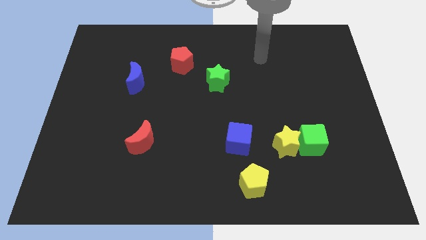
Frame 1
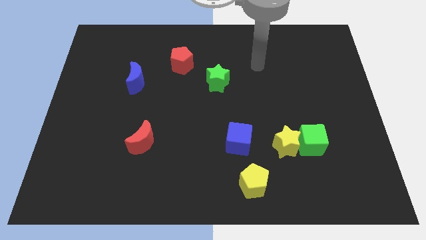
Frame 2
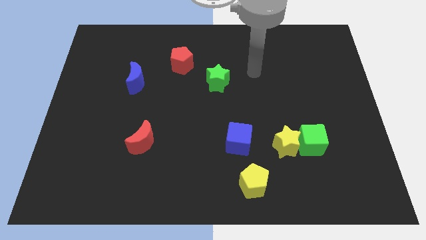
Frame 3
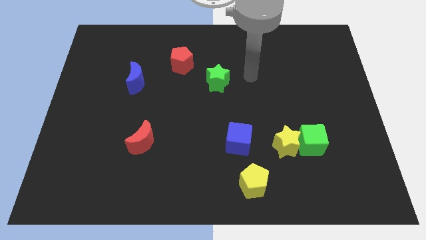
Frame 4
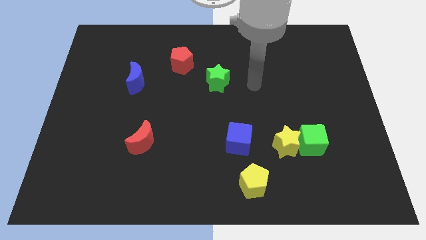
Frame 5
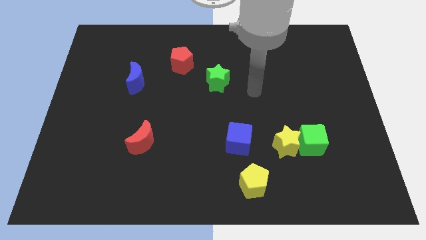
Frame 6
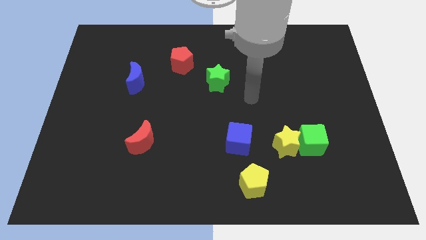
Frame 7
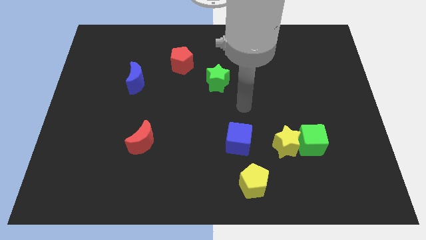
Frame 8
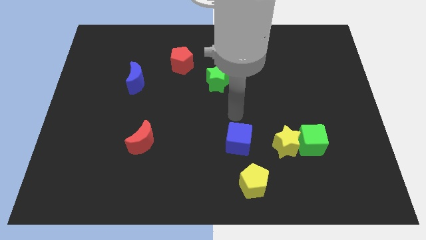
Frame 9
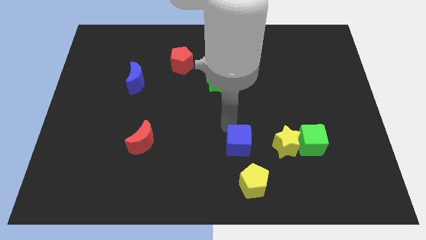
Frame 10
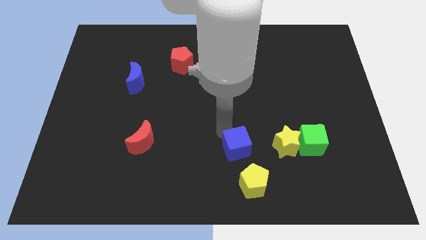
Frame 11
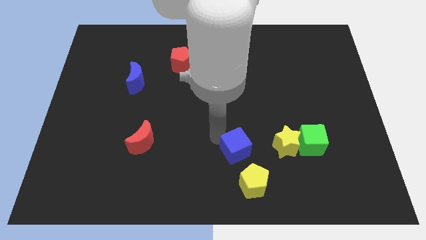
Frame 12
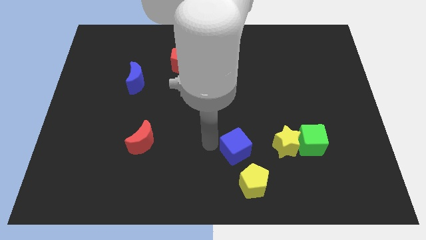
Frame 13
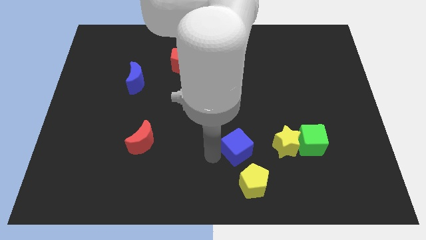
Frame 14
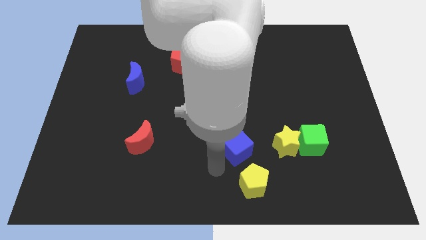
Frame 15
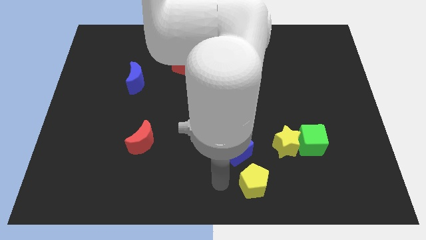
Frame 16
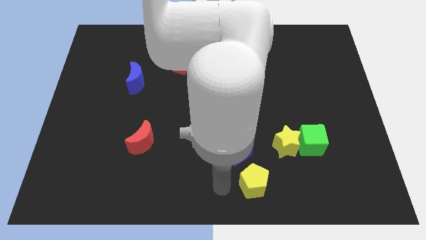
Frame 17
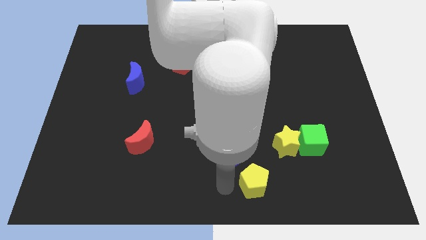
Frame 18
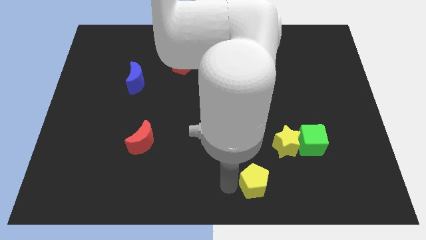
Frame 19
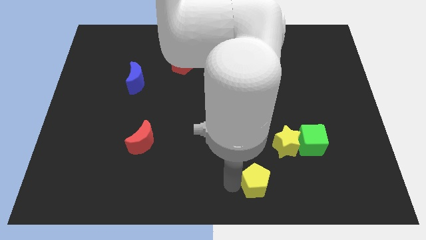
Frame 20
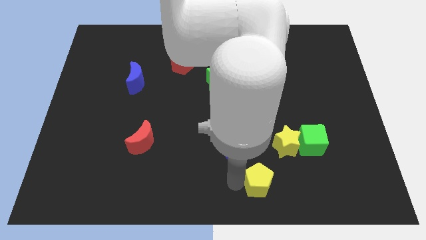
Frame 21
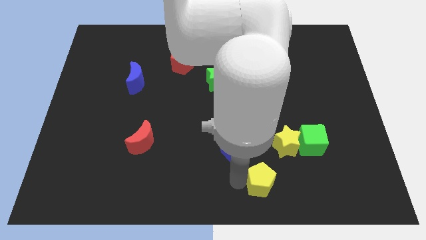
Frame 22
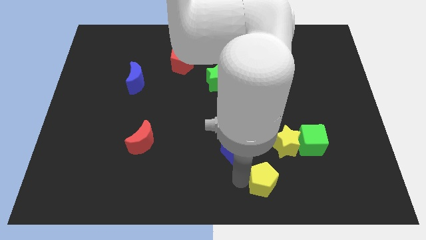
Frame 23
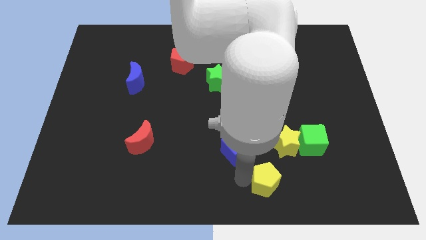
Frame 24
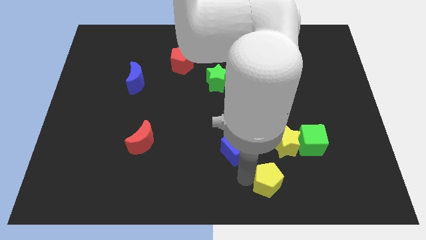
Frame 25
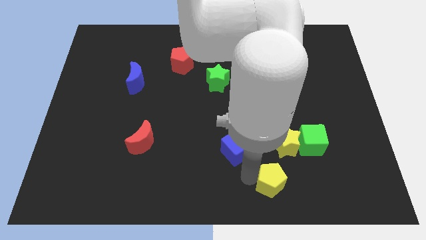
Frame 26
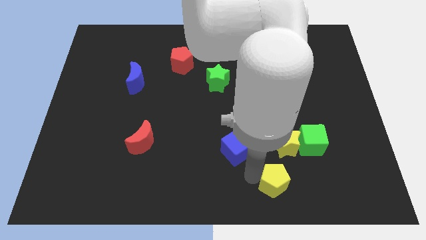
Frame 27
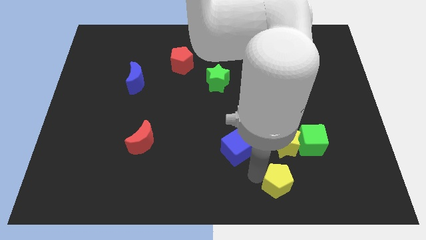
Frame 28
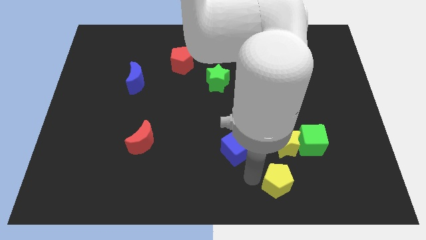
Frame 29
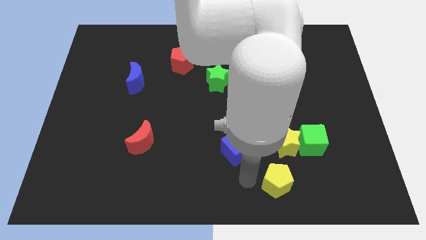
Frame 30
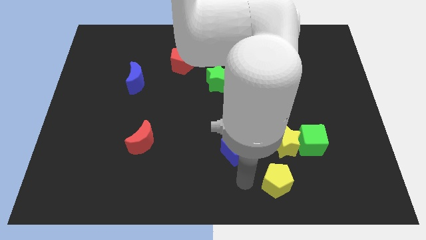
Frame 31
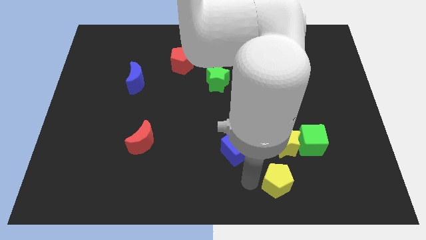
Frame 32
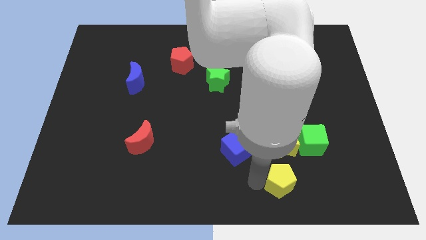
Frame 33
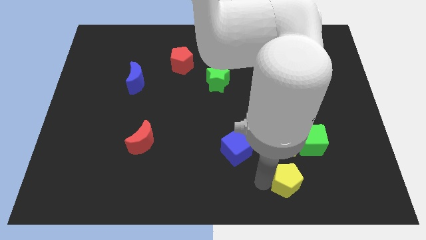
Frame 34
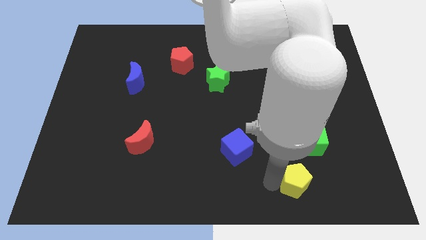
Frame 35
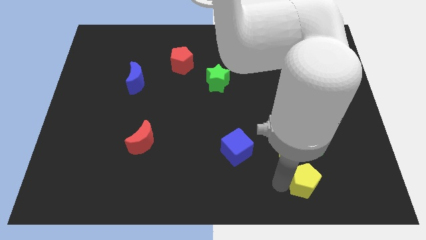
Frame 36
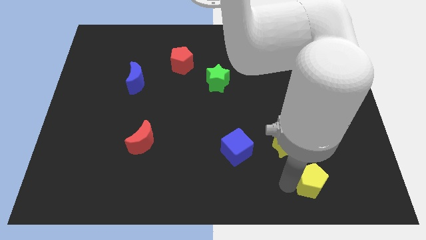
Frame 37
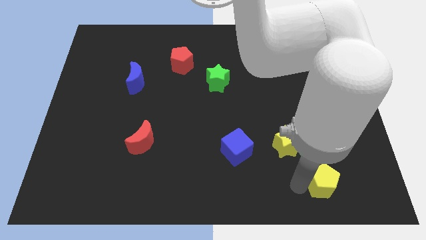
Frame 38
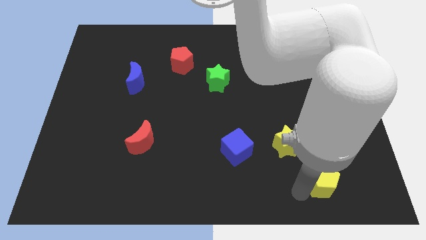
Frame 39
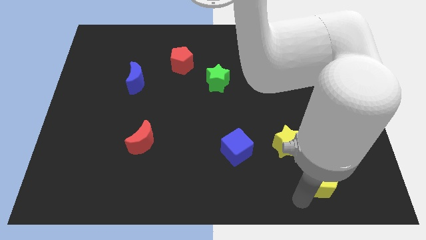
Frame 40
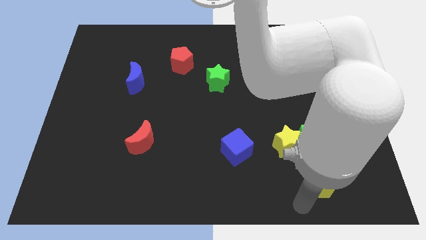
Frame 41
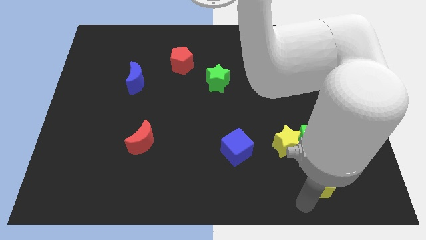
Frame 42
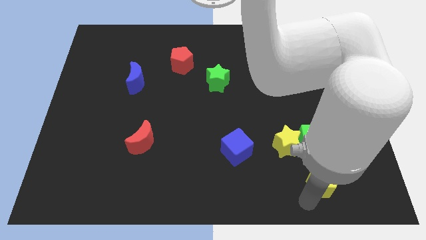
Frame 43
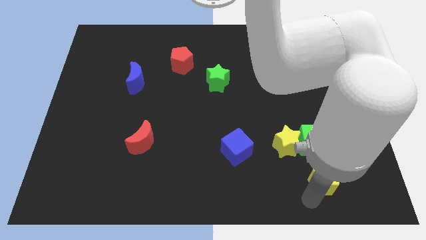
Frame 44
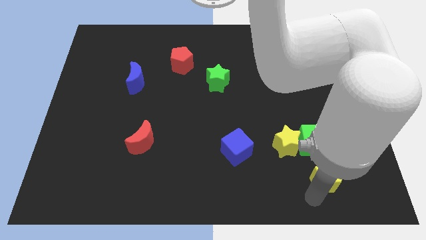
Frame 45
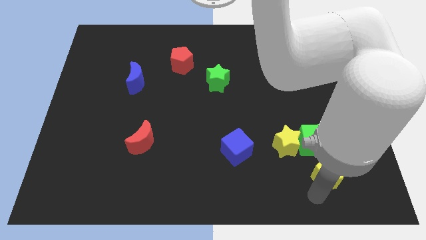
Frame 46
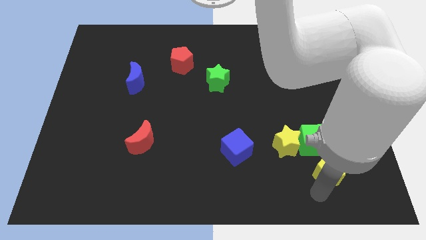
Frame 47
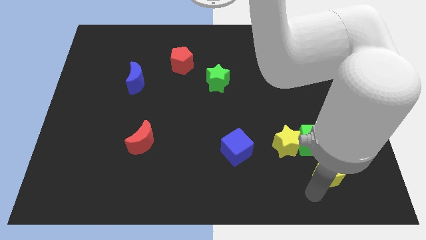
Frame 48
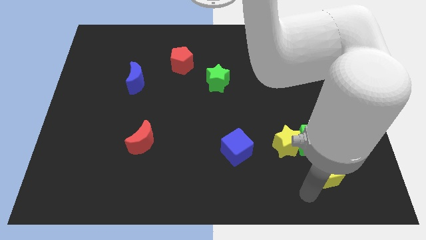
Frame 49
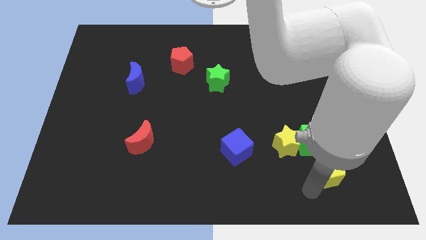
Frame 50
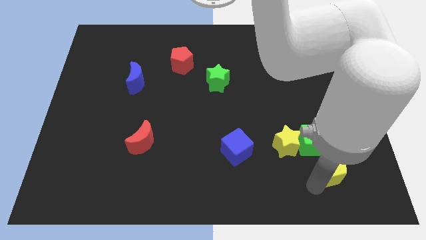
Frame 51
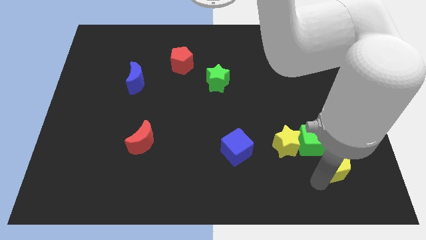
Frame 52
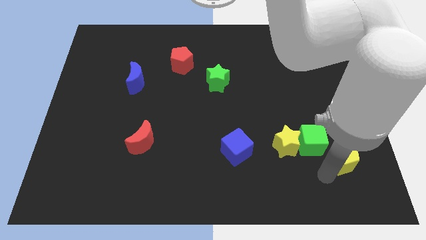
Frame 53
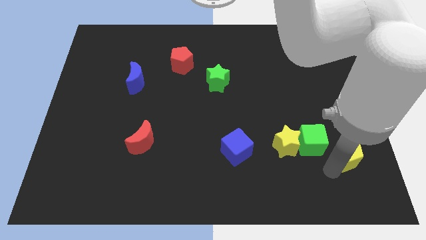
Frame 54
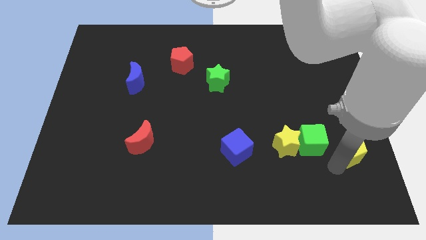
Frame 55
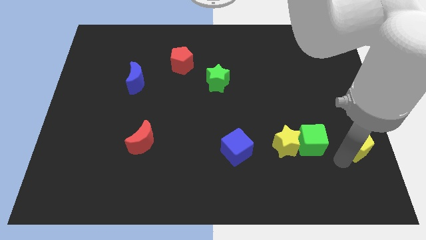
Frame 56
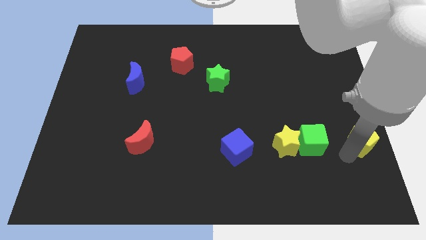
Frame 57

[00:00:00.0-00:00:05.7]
put the yellow pentagon to the right side of the board

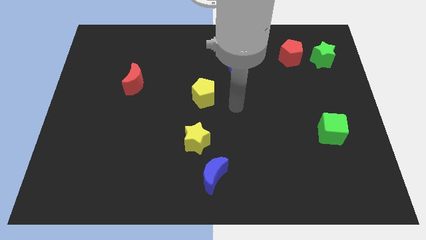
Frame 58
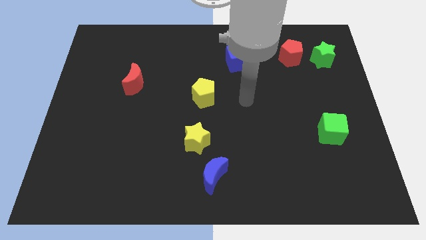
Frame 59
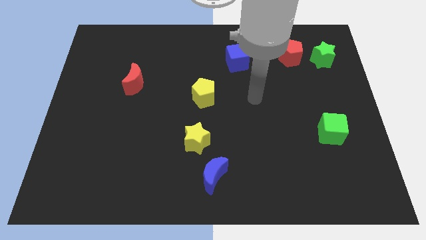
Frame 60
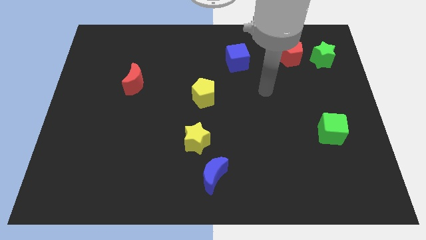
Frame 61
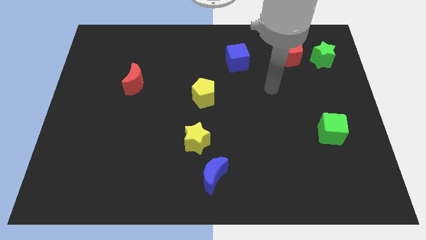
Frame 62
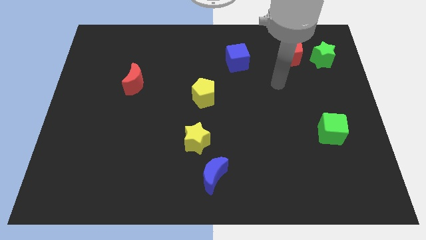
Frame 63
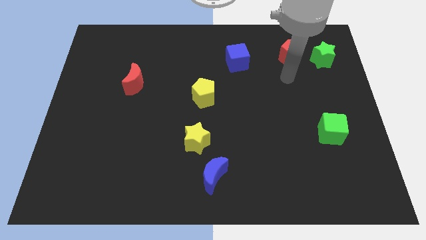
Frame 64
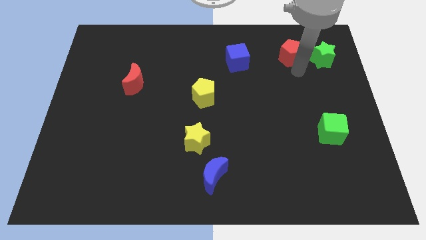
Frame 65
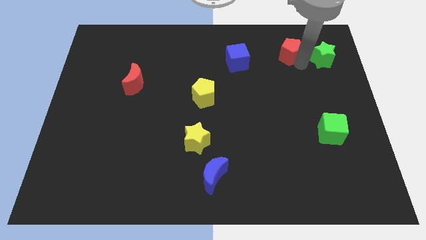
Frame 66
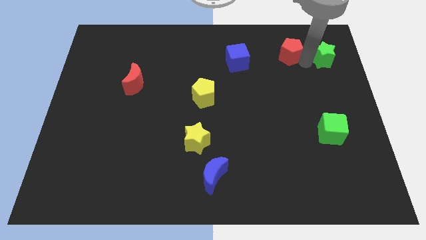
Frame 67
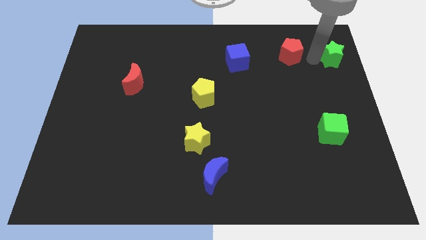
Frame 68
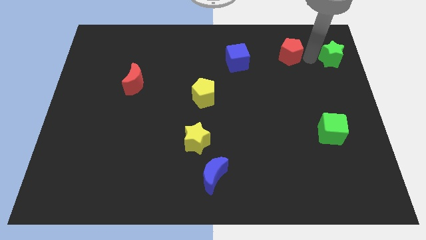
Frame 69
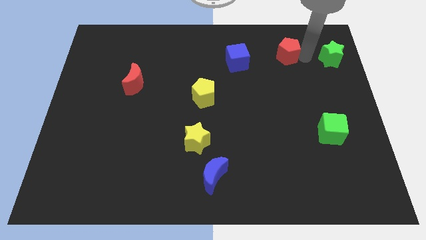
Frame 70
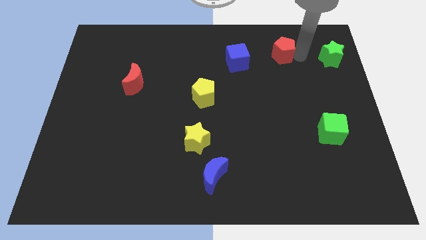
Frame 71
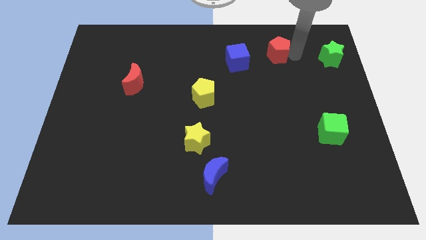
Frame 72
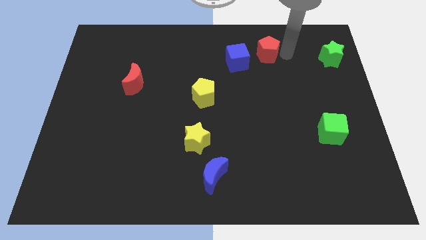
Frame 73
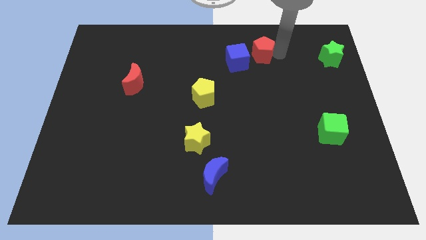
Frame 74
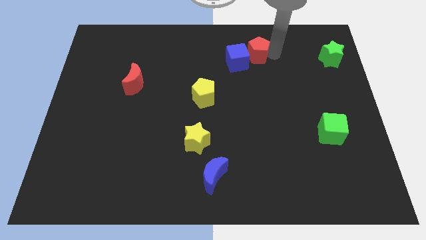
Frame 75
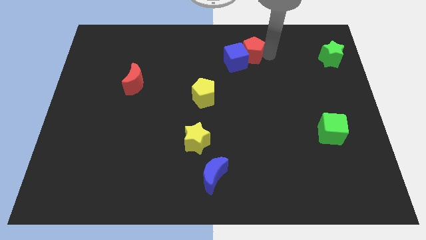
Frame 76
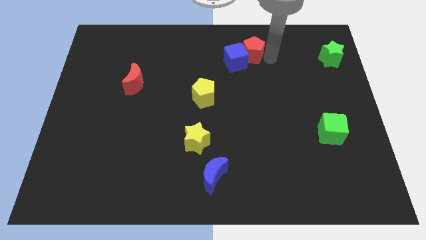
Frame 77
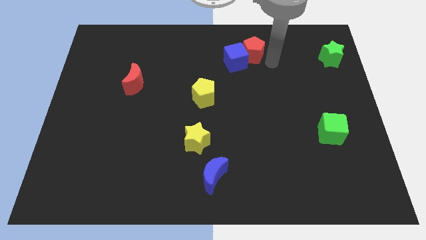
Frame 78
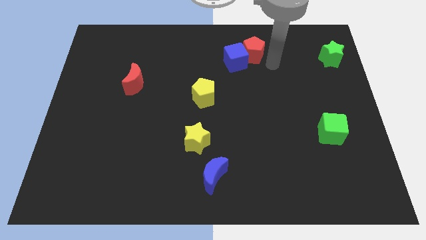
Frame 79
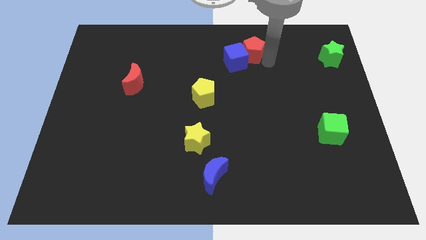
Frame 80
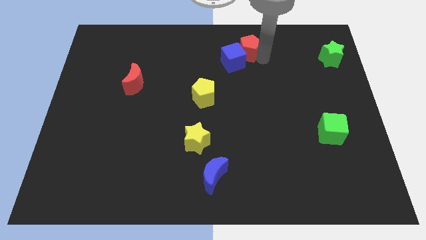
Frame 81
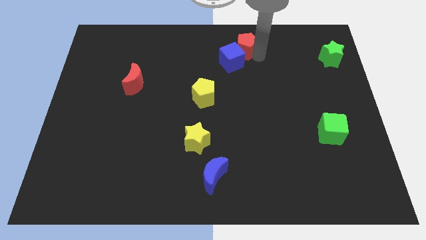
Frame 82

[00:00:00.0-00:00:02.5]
slide the red pentagon to the top side
